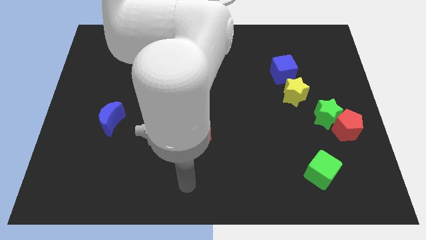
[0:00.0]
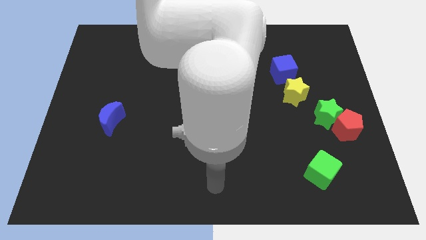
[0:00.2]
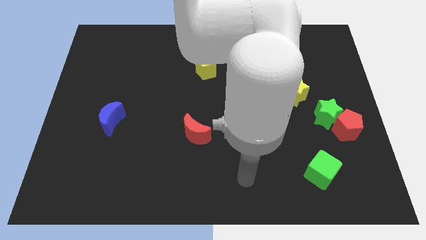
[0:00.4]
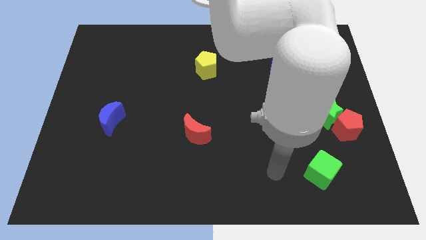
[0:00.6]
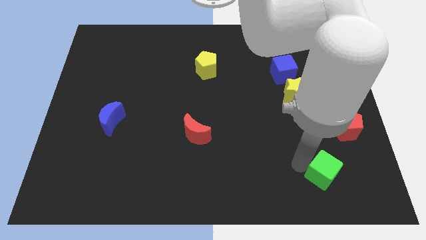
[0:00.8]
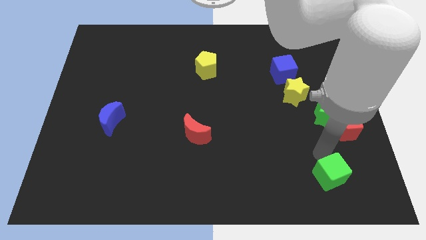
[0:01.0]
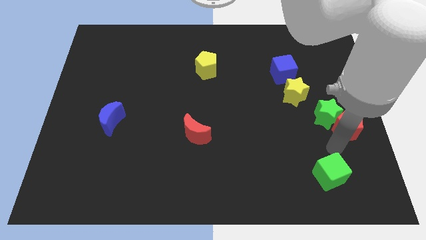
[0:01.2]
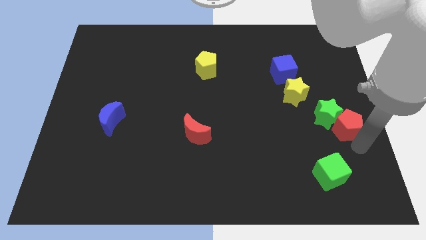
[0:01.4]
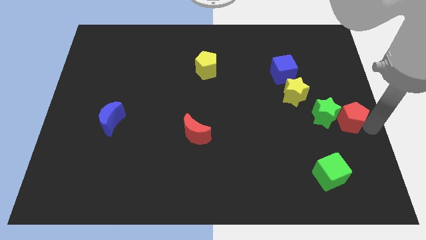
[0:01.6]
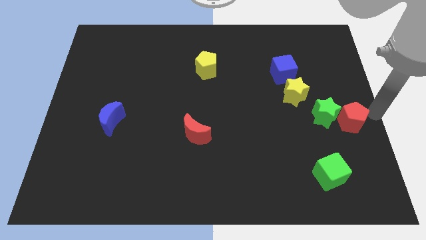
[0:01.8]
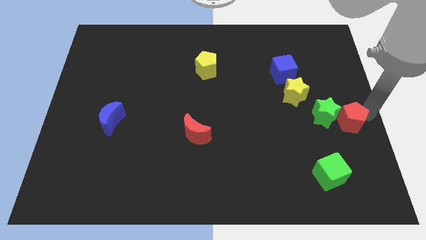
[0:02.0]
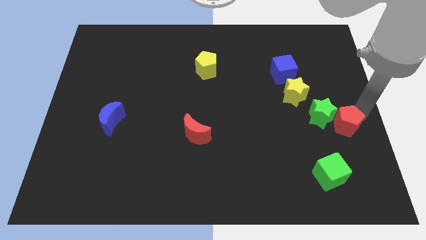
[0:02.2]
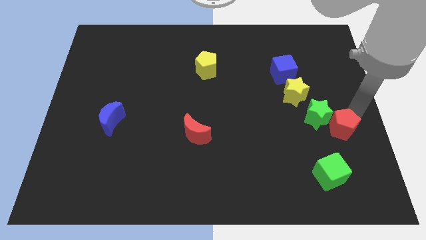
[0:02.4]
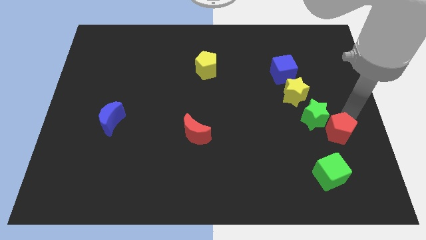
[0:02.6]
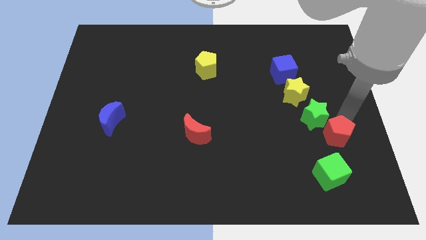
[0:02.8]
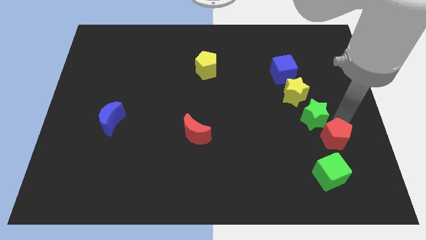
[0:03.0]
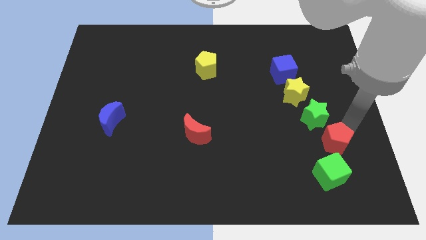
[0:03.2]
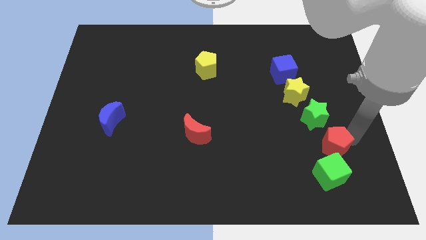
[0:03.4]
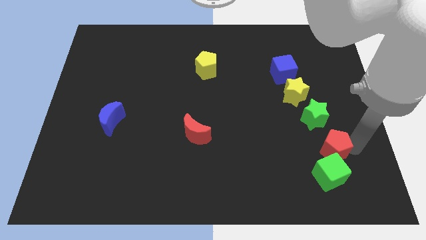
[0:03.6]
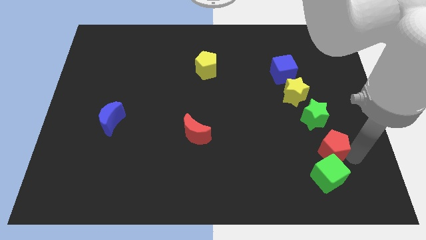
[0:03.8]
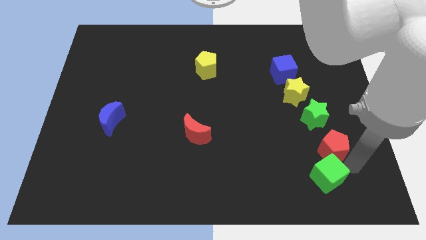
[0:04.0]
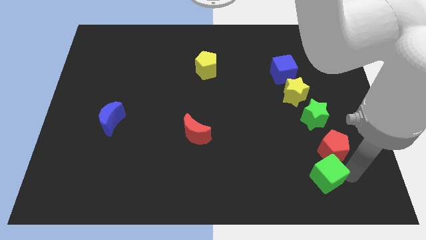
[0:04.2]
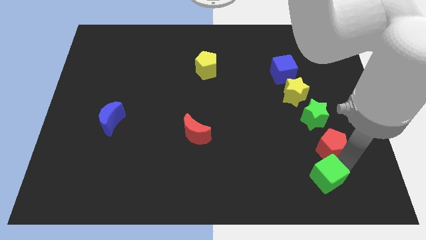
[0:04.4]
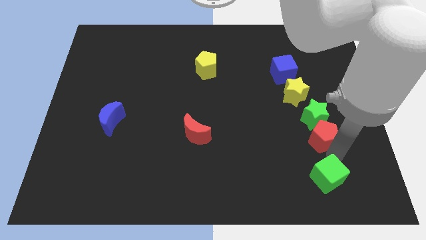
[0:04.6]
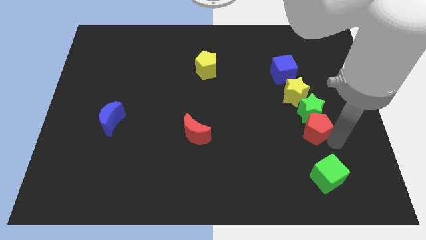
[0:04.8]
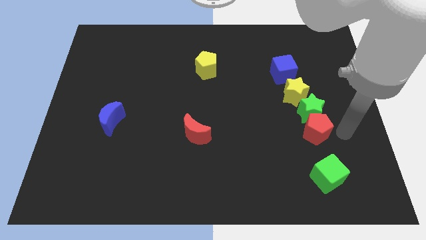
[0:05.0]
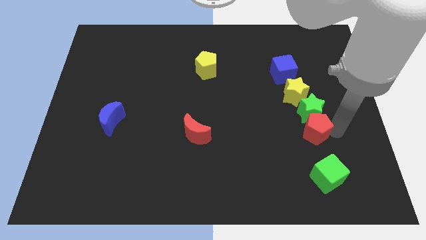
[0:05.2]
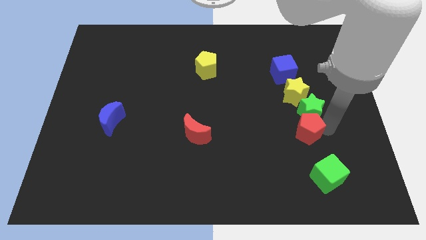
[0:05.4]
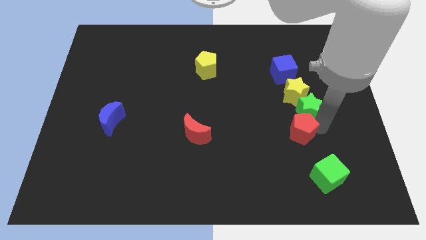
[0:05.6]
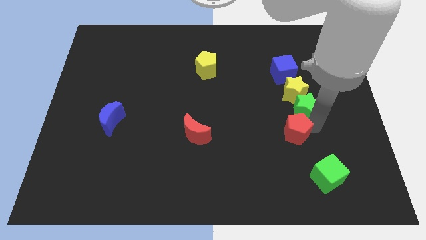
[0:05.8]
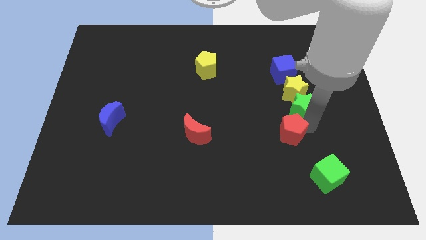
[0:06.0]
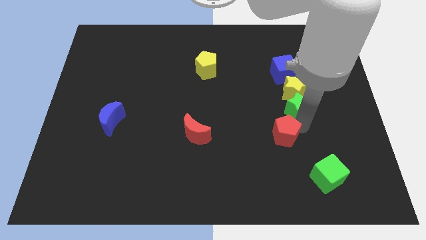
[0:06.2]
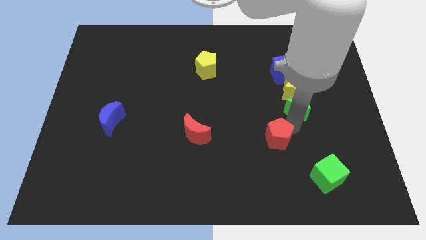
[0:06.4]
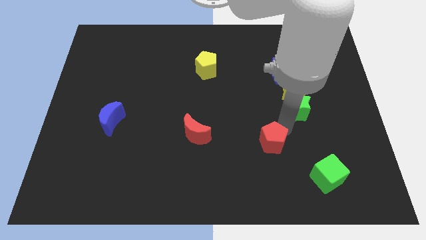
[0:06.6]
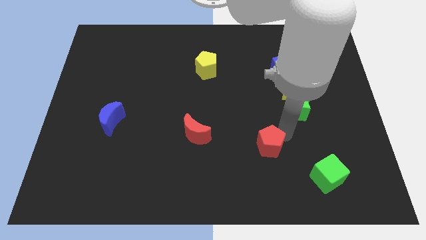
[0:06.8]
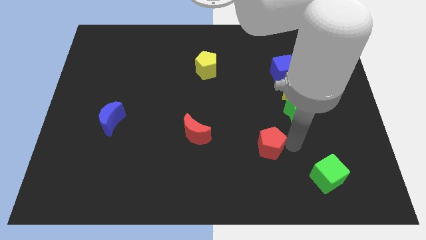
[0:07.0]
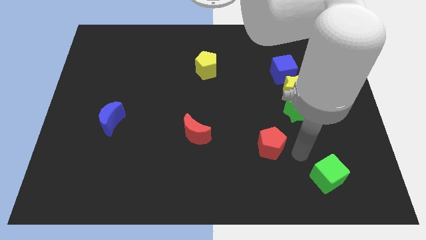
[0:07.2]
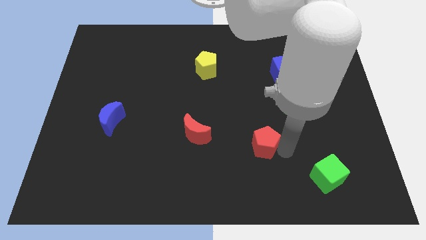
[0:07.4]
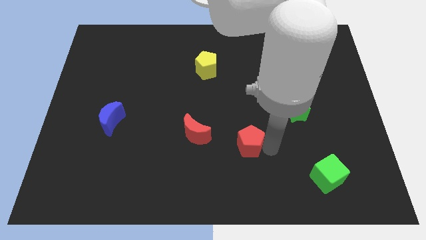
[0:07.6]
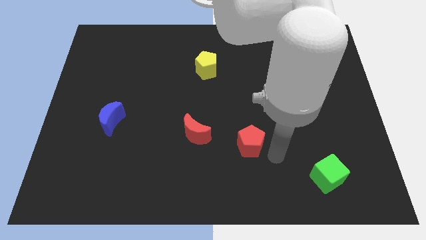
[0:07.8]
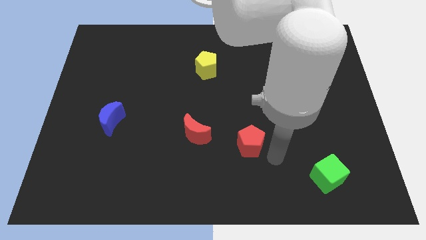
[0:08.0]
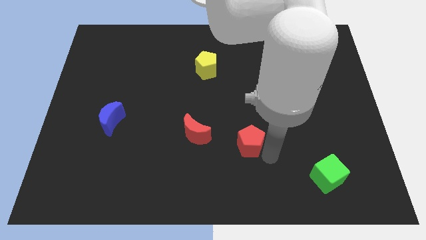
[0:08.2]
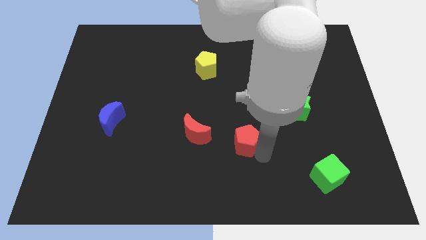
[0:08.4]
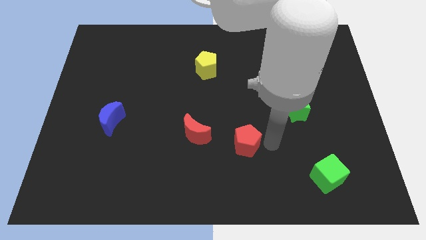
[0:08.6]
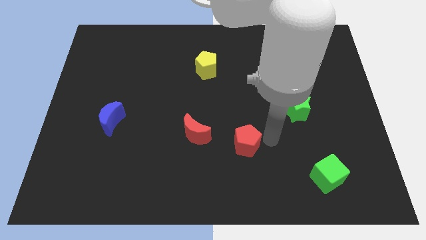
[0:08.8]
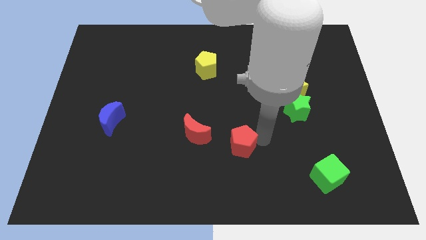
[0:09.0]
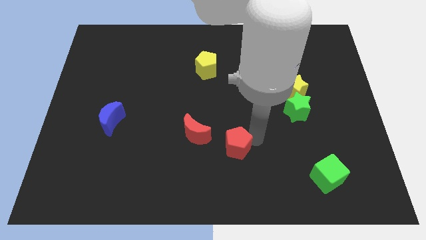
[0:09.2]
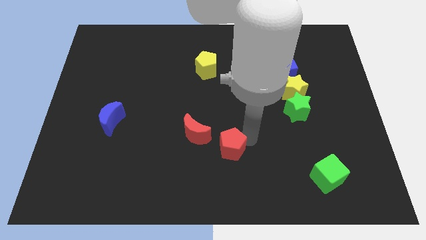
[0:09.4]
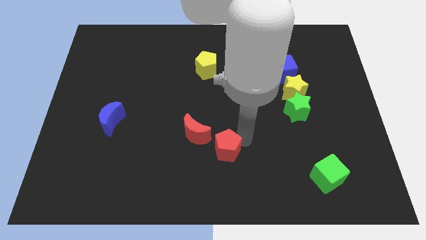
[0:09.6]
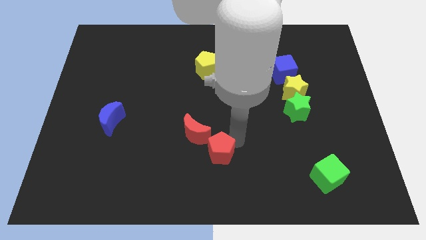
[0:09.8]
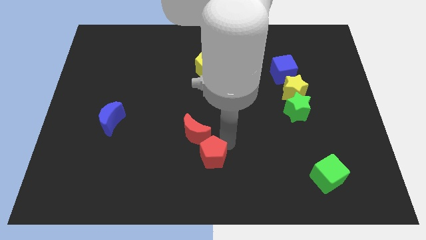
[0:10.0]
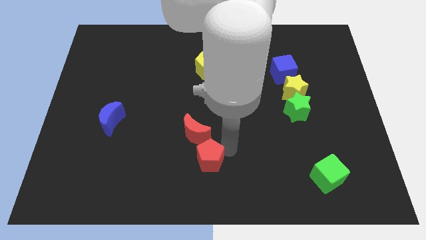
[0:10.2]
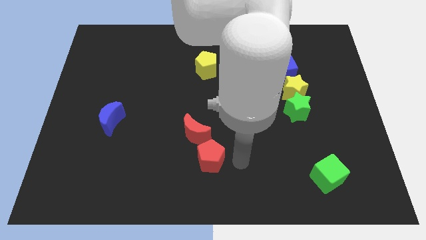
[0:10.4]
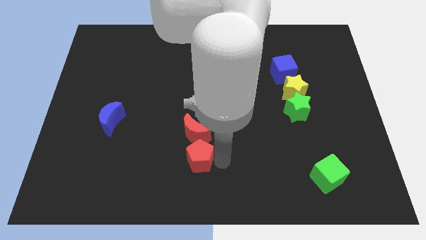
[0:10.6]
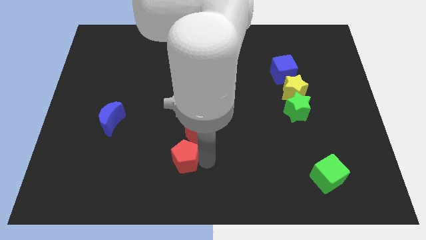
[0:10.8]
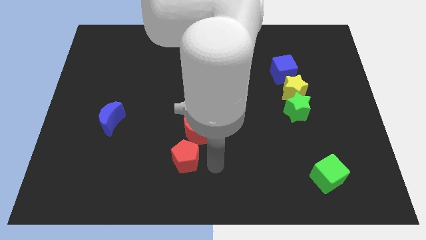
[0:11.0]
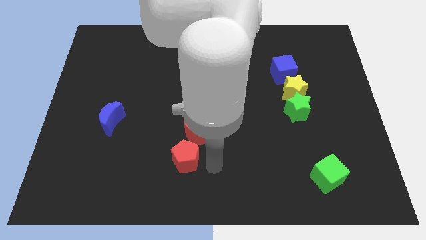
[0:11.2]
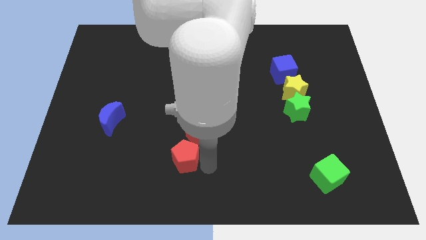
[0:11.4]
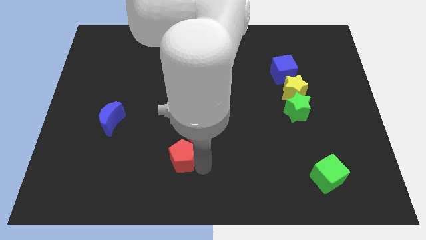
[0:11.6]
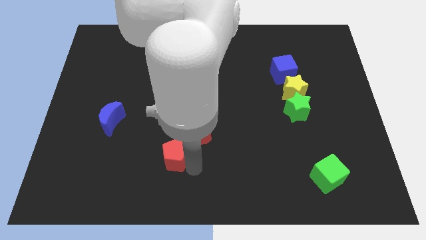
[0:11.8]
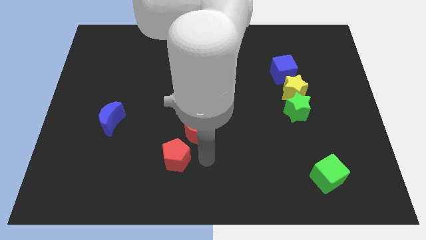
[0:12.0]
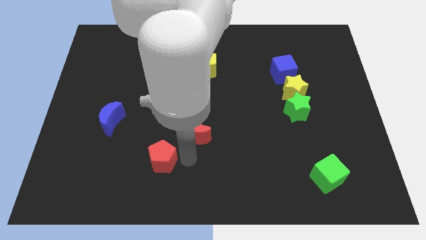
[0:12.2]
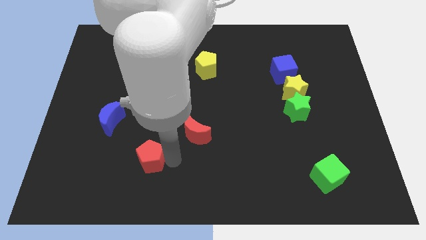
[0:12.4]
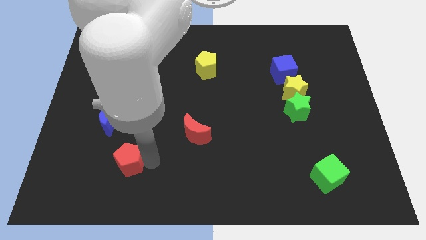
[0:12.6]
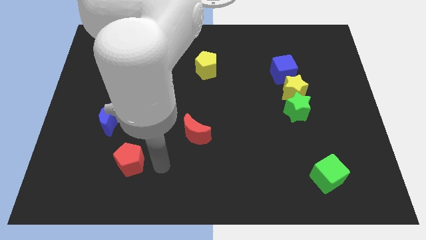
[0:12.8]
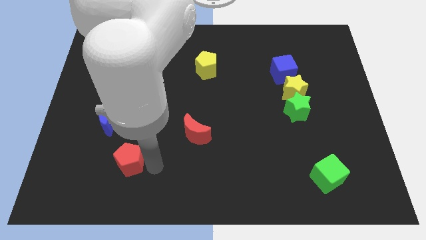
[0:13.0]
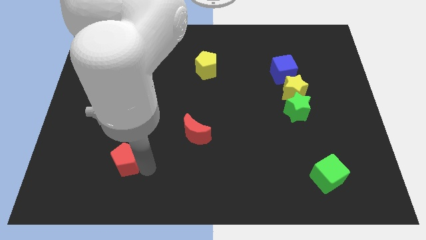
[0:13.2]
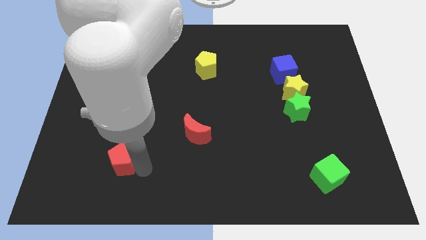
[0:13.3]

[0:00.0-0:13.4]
push the red pentagon to the bottom of the blue moon

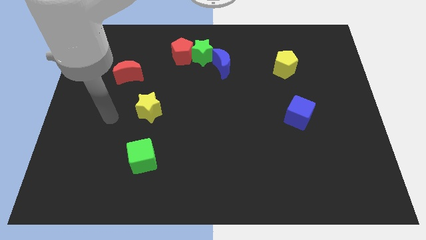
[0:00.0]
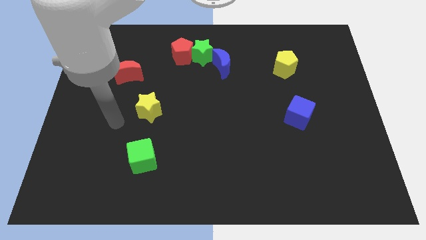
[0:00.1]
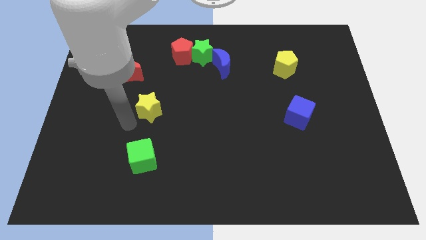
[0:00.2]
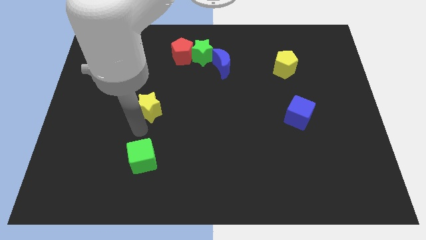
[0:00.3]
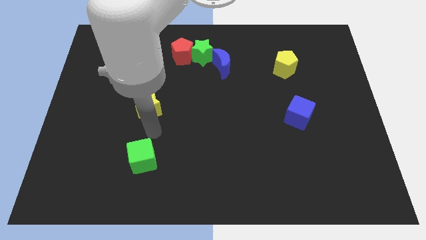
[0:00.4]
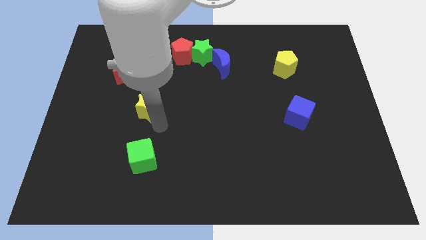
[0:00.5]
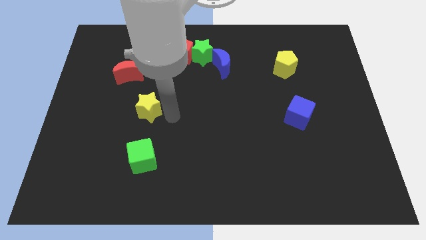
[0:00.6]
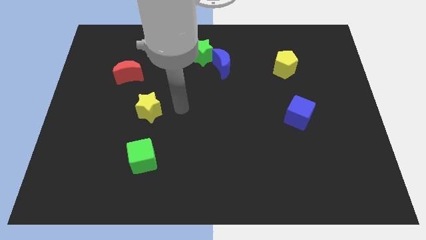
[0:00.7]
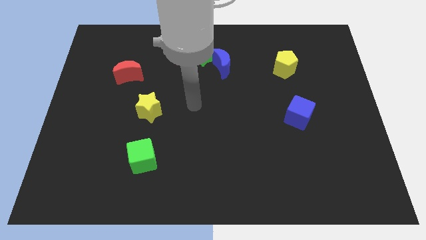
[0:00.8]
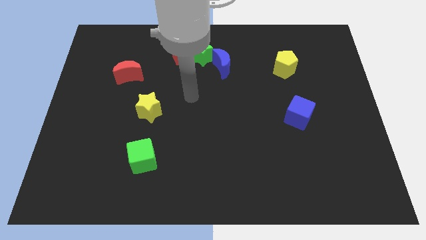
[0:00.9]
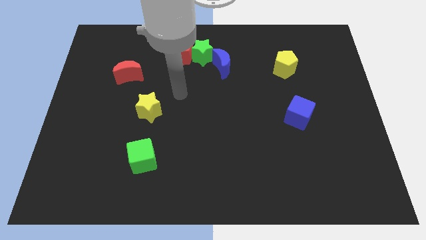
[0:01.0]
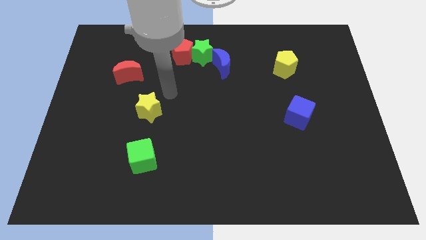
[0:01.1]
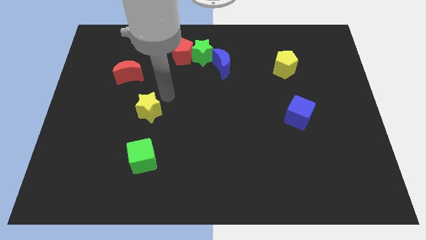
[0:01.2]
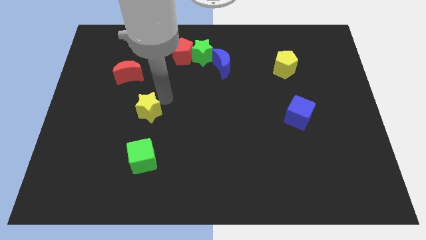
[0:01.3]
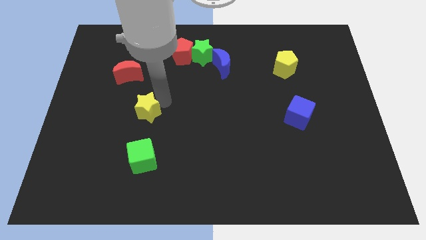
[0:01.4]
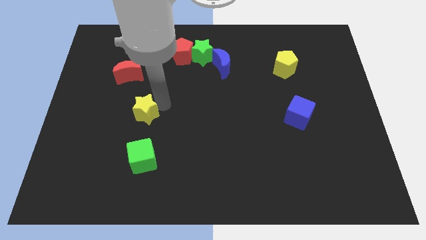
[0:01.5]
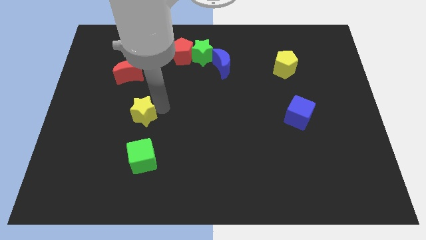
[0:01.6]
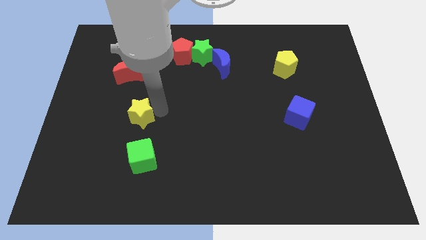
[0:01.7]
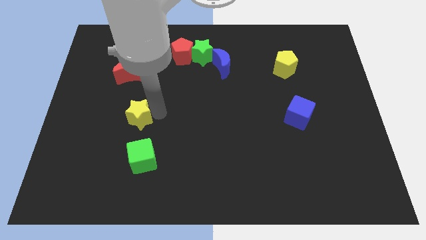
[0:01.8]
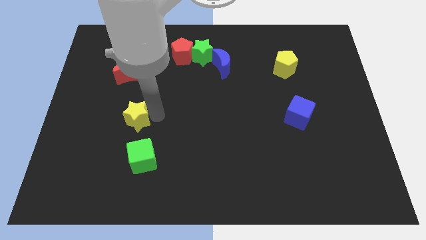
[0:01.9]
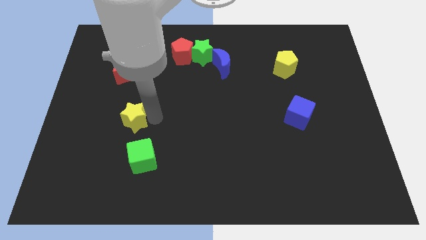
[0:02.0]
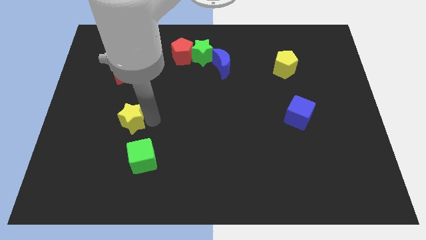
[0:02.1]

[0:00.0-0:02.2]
push the yellow star diagonally up and to the left of the green cube
